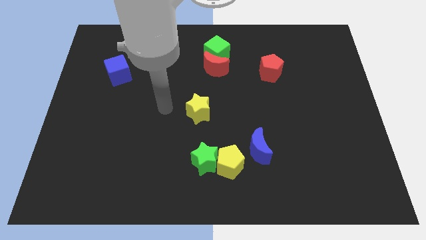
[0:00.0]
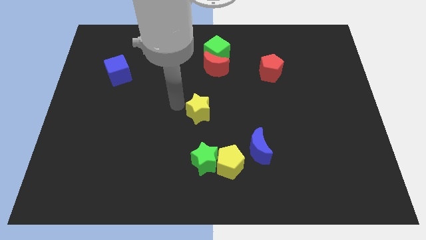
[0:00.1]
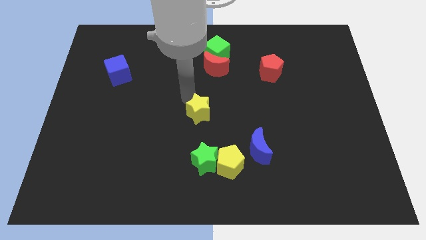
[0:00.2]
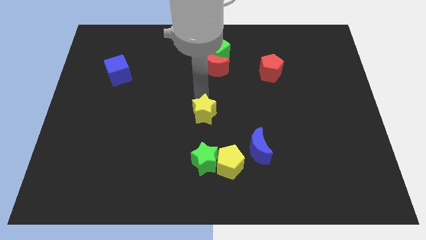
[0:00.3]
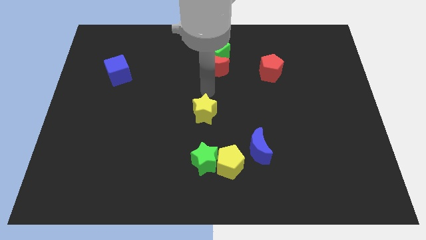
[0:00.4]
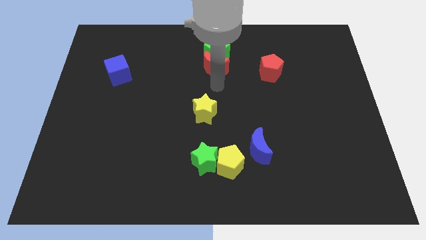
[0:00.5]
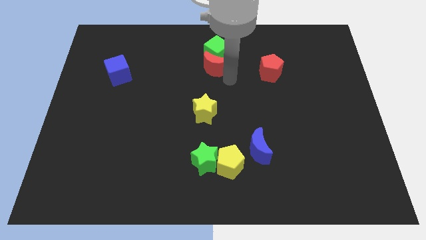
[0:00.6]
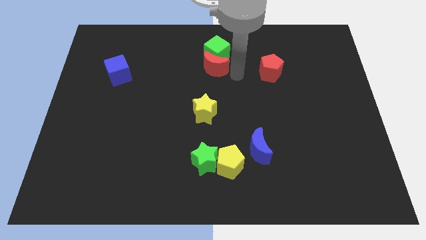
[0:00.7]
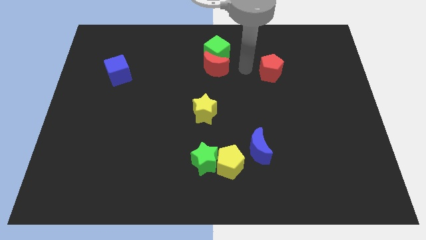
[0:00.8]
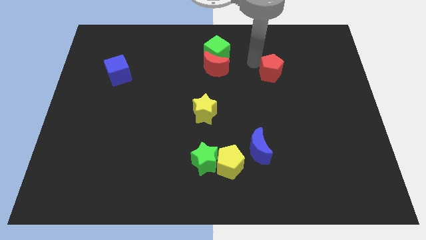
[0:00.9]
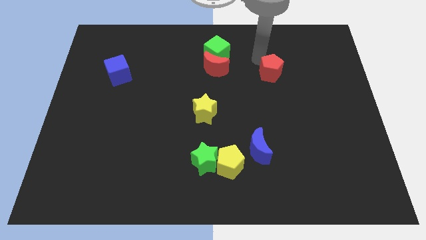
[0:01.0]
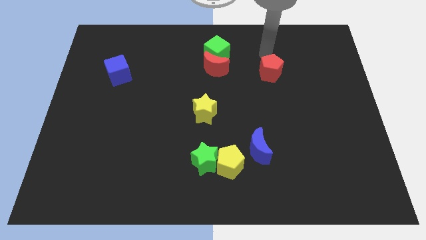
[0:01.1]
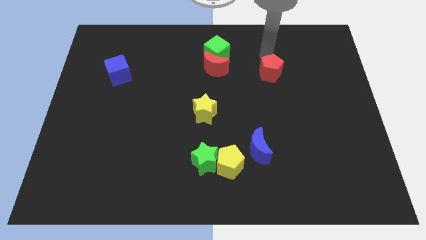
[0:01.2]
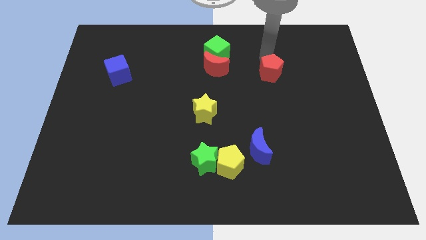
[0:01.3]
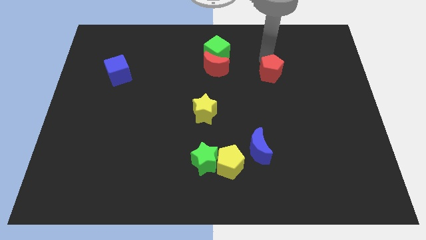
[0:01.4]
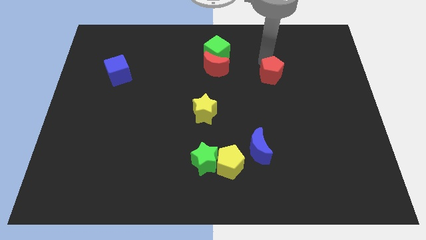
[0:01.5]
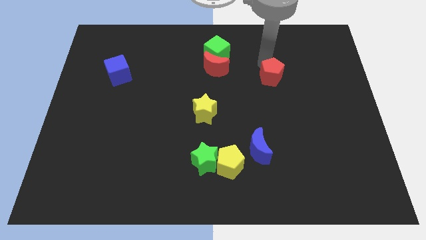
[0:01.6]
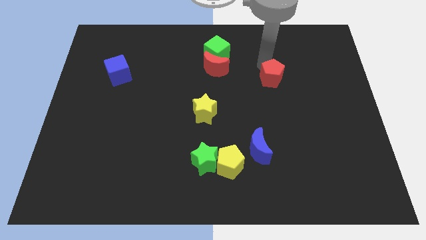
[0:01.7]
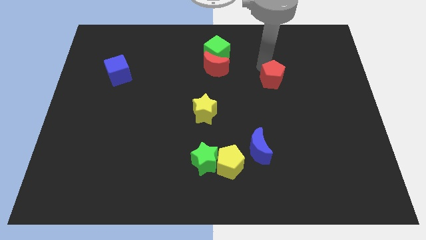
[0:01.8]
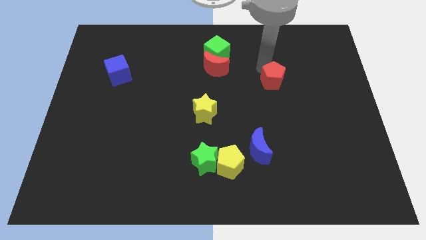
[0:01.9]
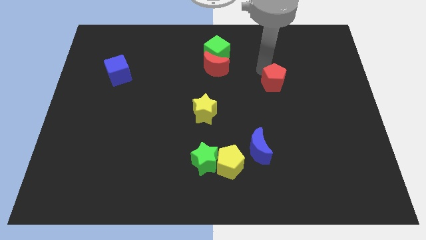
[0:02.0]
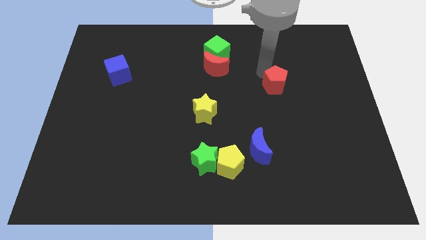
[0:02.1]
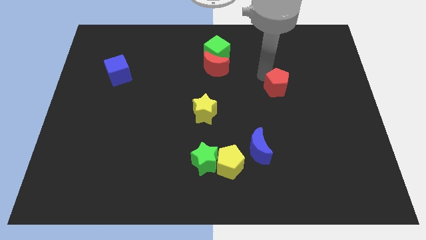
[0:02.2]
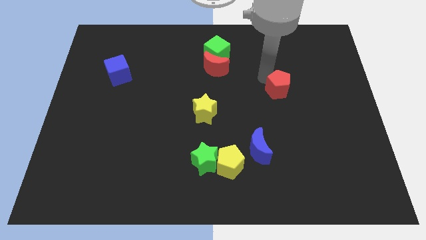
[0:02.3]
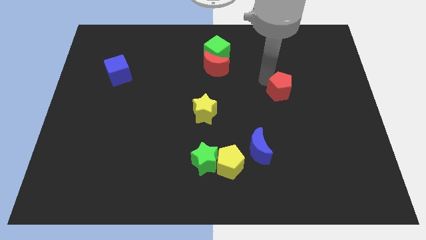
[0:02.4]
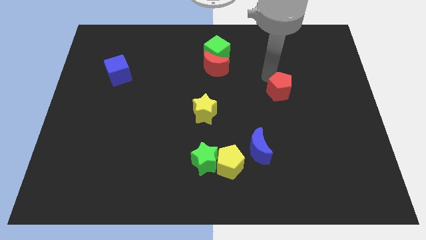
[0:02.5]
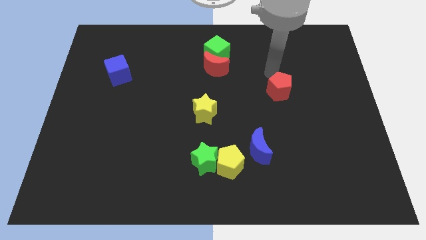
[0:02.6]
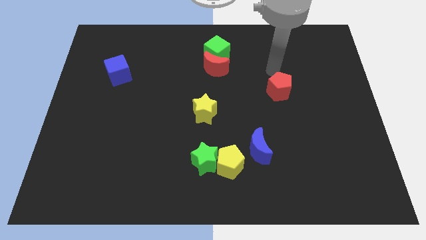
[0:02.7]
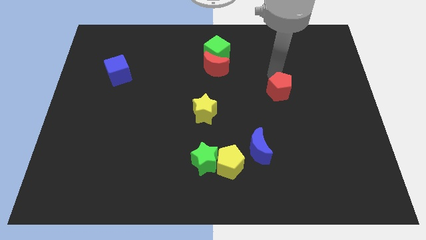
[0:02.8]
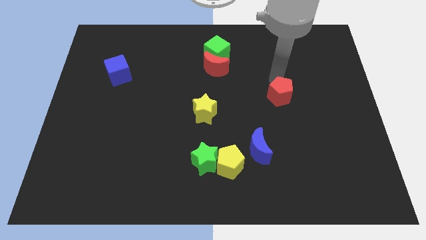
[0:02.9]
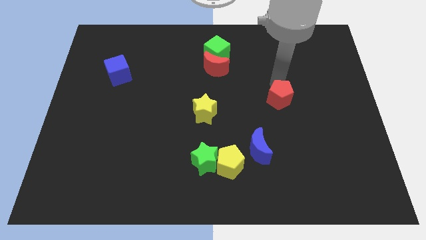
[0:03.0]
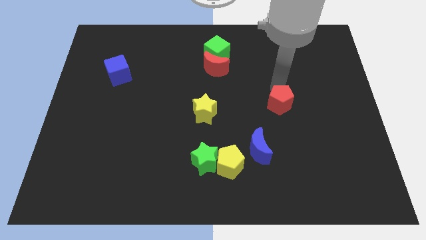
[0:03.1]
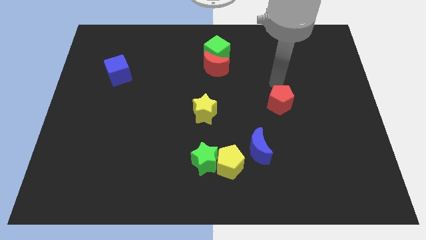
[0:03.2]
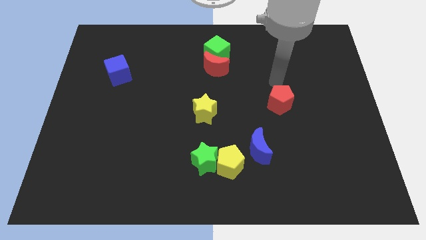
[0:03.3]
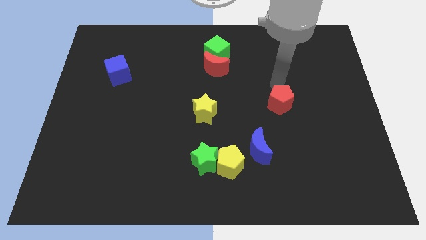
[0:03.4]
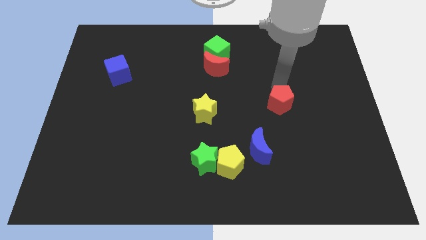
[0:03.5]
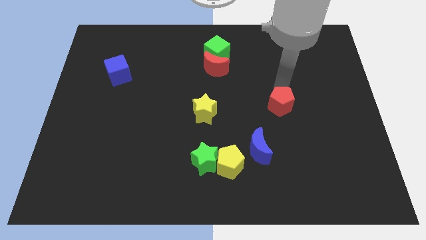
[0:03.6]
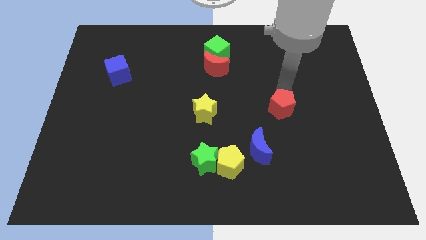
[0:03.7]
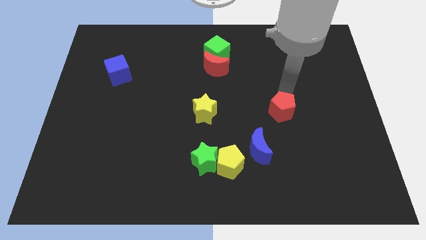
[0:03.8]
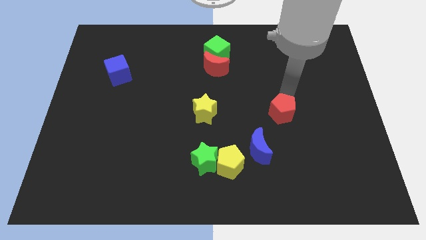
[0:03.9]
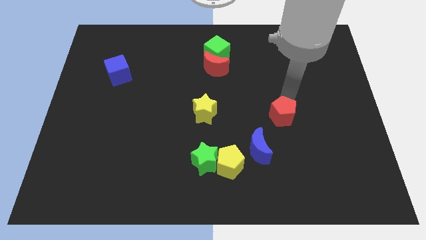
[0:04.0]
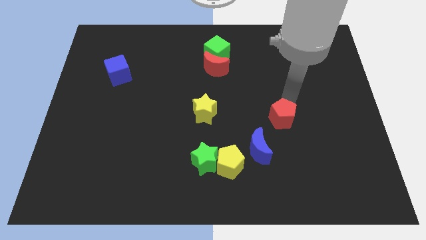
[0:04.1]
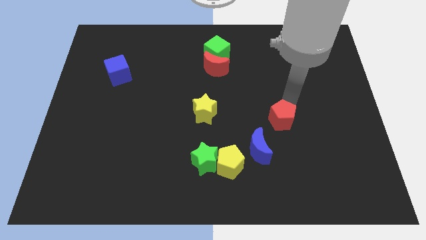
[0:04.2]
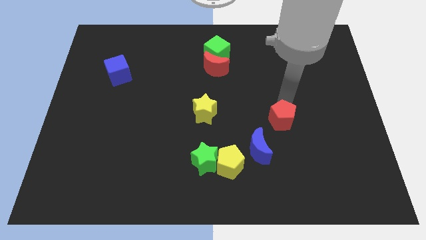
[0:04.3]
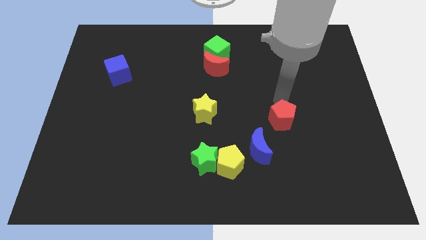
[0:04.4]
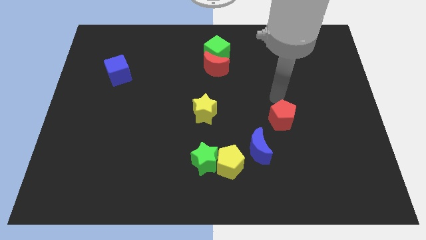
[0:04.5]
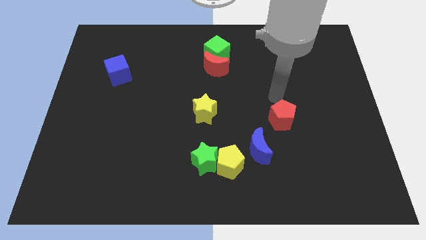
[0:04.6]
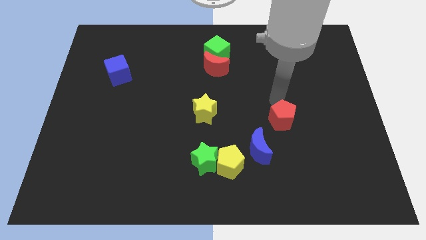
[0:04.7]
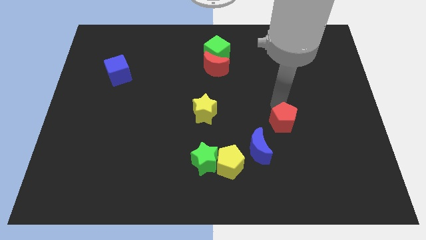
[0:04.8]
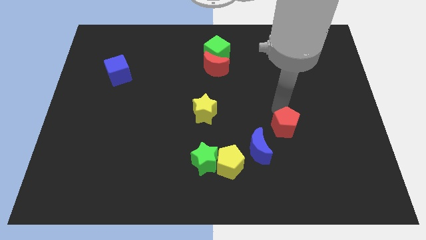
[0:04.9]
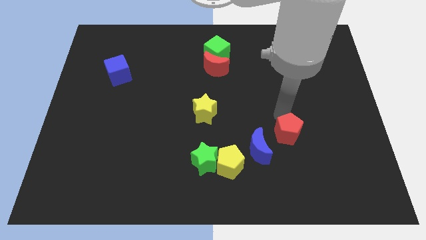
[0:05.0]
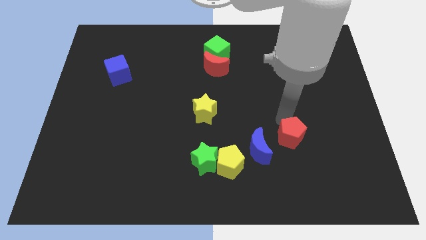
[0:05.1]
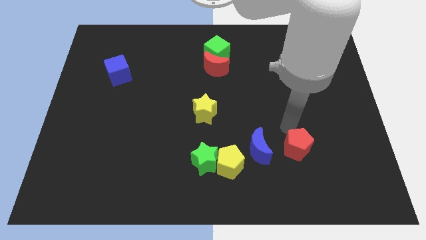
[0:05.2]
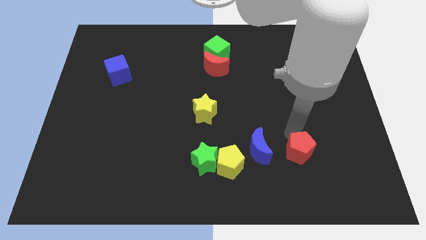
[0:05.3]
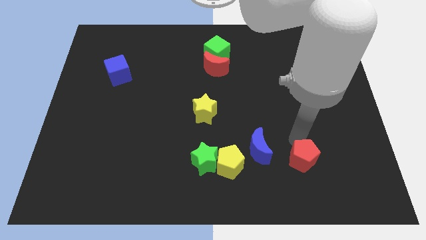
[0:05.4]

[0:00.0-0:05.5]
move the red pentagon to the bottom right side of the blue moon

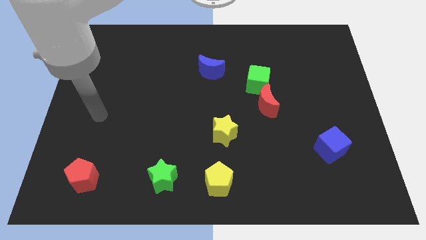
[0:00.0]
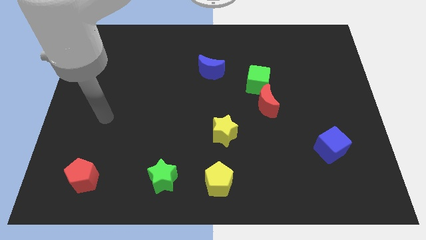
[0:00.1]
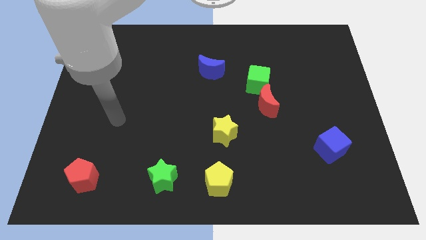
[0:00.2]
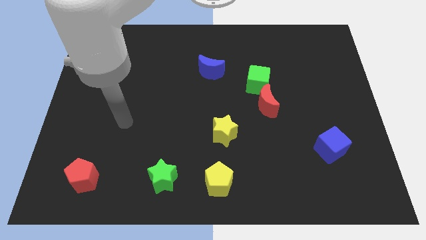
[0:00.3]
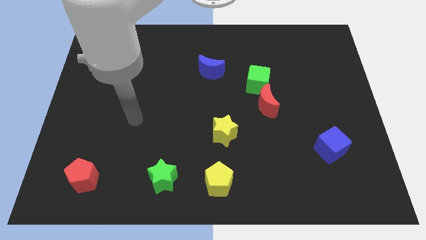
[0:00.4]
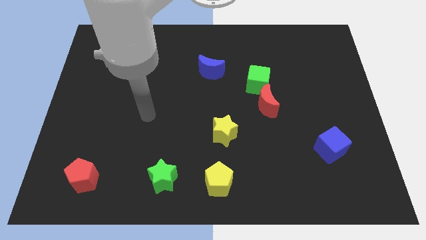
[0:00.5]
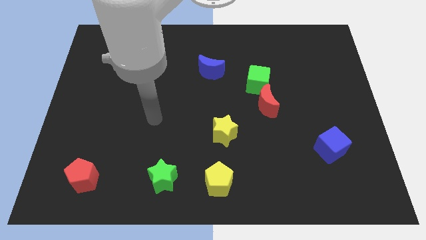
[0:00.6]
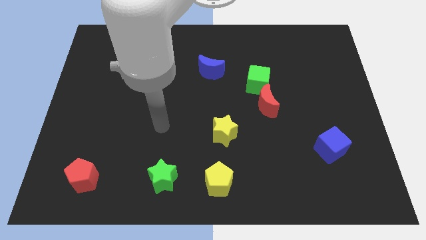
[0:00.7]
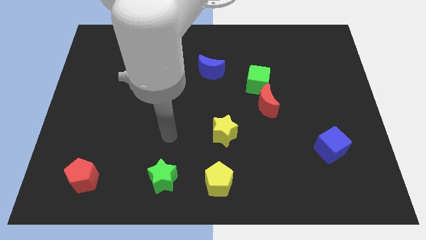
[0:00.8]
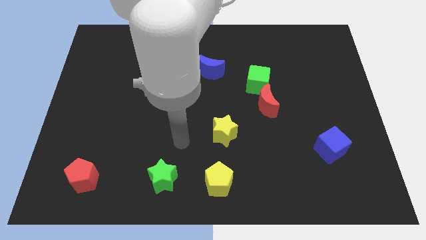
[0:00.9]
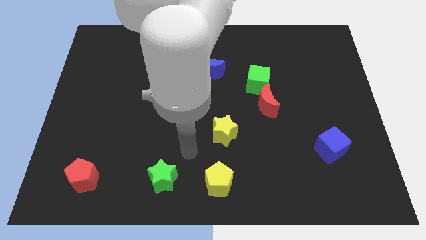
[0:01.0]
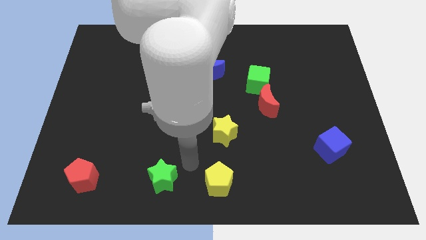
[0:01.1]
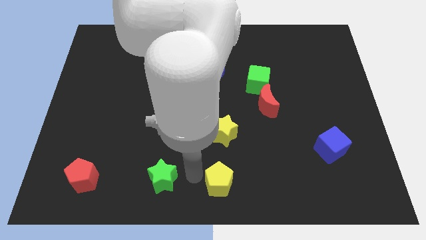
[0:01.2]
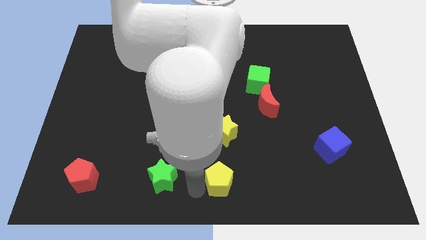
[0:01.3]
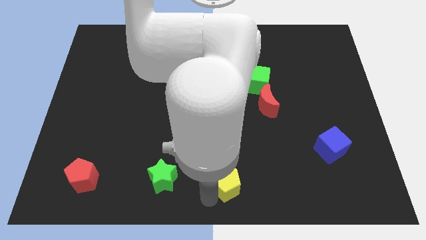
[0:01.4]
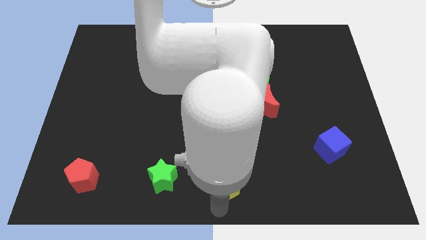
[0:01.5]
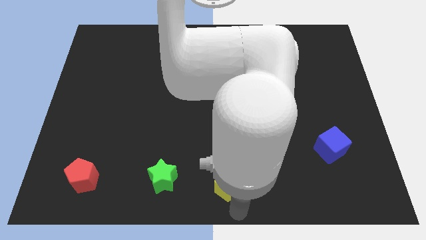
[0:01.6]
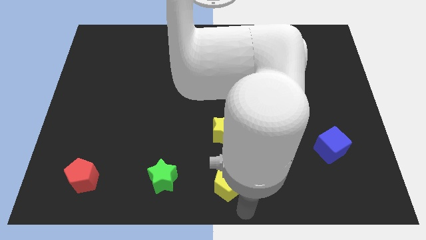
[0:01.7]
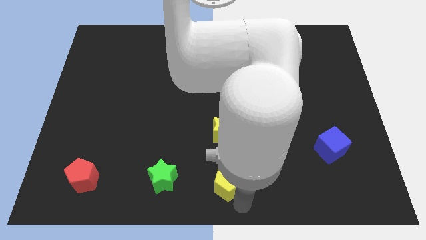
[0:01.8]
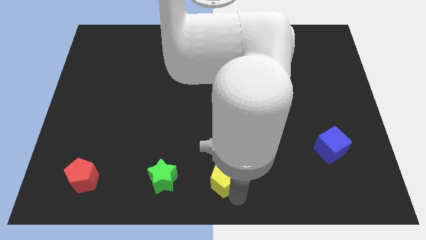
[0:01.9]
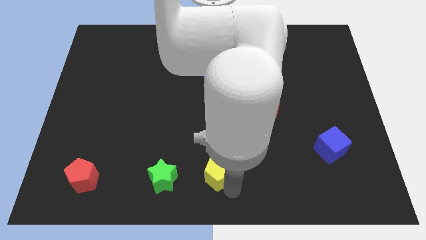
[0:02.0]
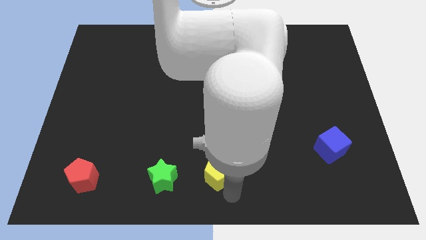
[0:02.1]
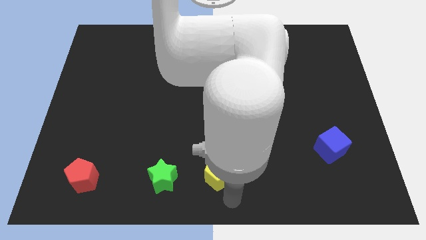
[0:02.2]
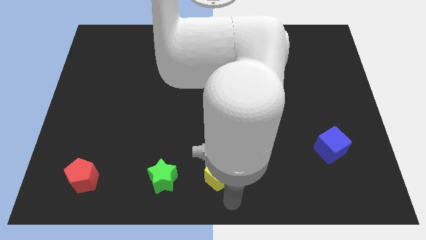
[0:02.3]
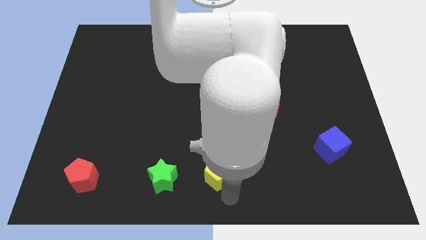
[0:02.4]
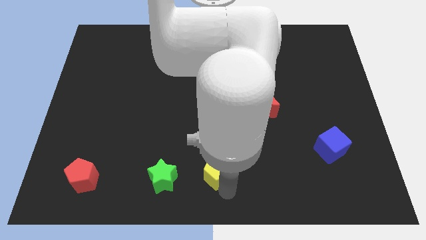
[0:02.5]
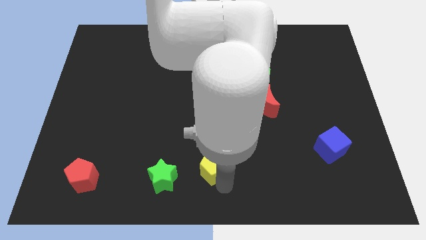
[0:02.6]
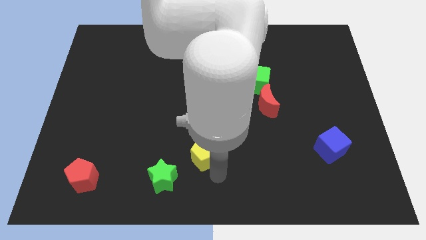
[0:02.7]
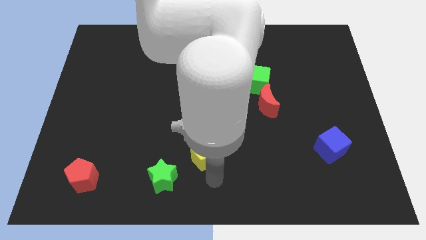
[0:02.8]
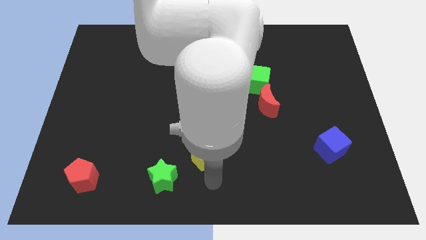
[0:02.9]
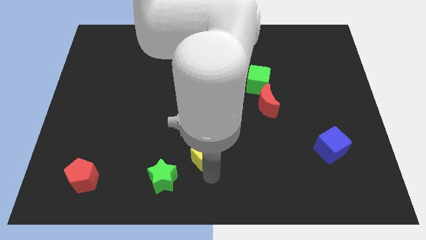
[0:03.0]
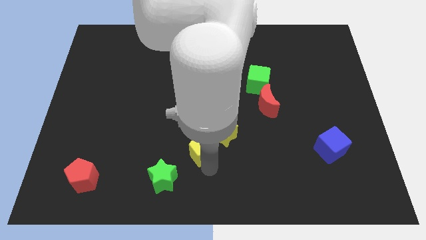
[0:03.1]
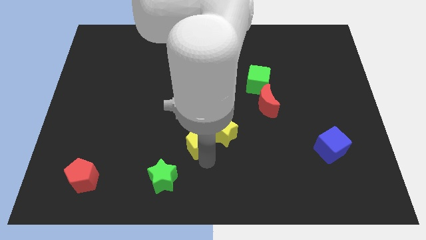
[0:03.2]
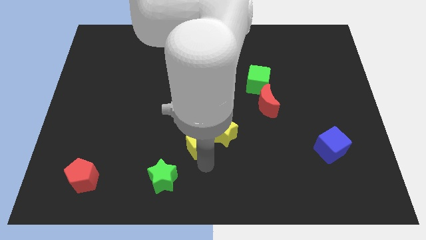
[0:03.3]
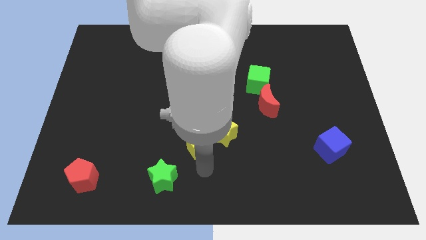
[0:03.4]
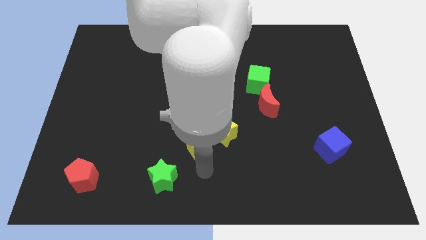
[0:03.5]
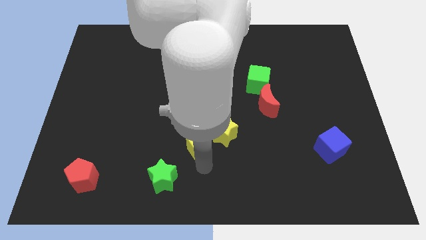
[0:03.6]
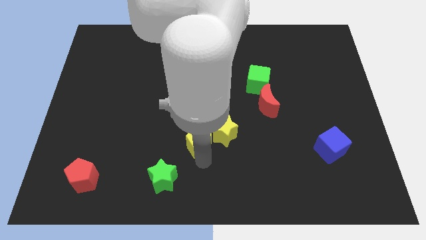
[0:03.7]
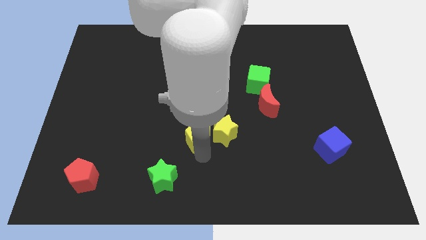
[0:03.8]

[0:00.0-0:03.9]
move the yellow pentagon diagonally up and to the left of the yellow star
